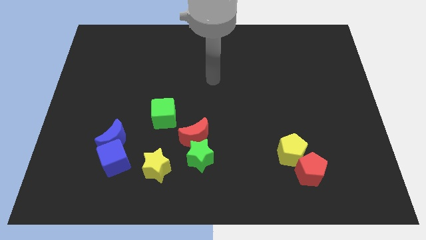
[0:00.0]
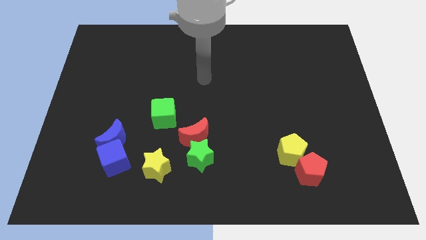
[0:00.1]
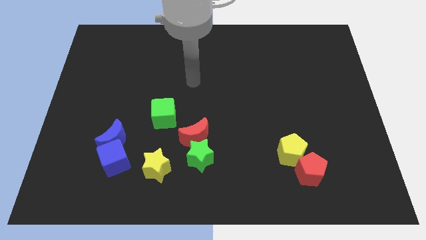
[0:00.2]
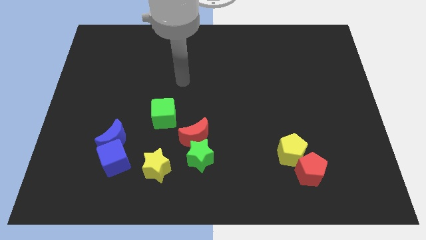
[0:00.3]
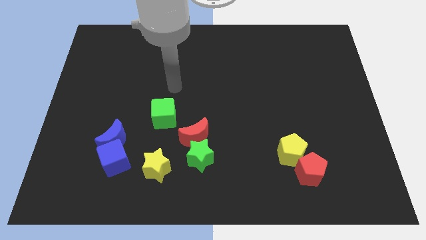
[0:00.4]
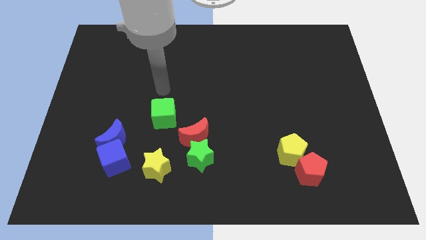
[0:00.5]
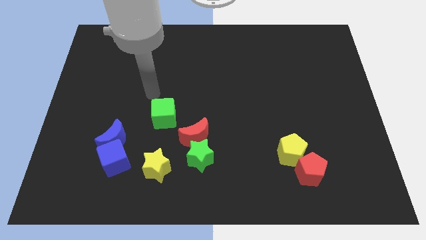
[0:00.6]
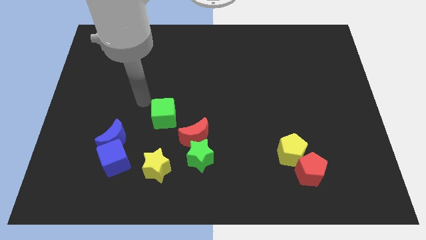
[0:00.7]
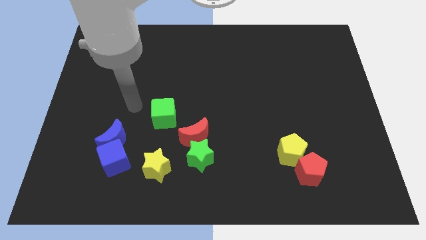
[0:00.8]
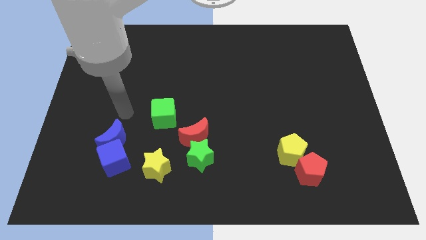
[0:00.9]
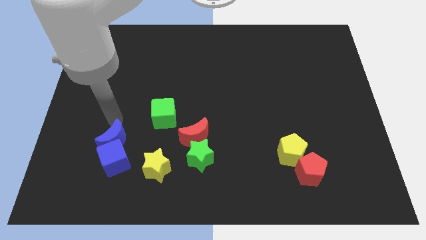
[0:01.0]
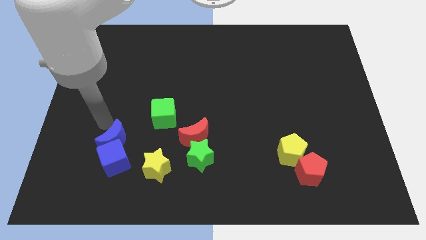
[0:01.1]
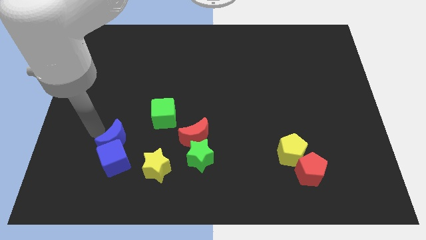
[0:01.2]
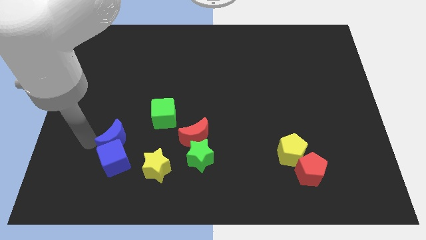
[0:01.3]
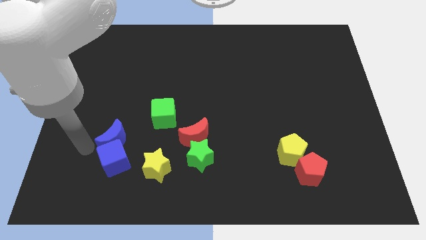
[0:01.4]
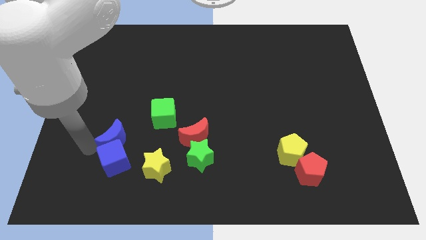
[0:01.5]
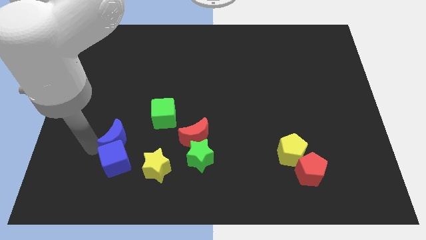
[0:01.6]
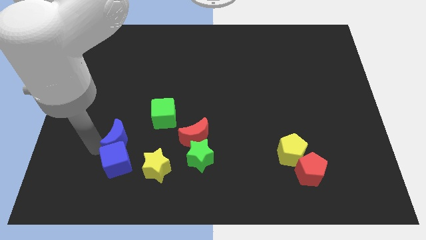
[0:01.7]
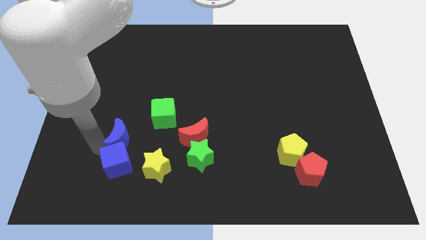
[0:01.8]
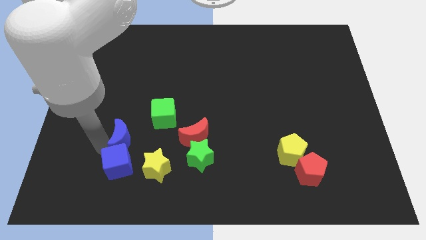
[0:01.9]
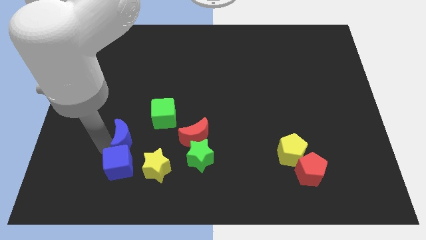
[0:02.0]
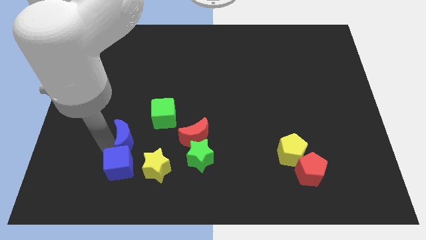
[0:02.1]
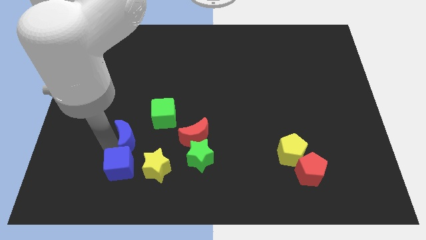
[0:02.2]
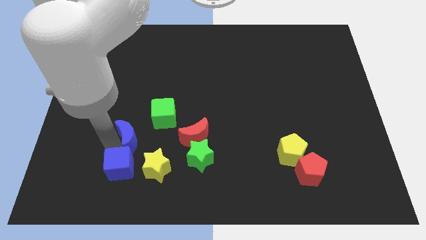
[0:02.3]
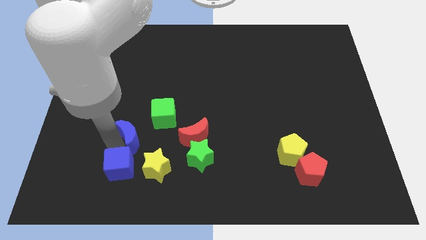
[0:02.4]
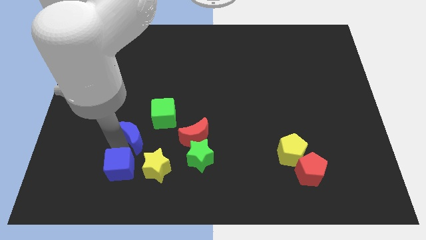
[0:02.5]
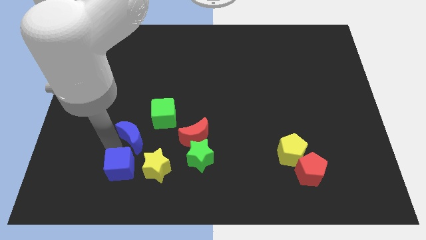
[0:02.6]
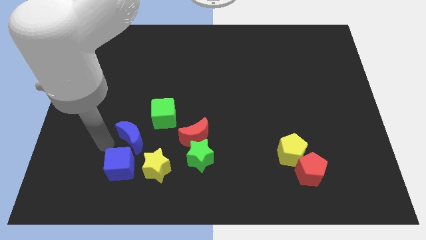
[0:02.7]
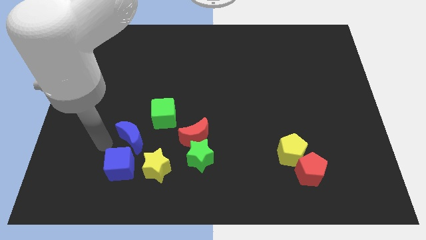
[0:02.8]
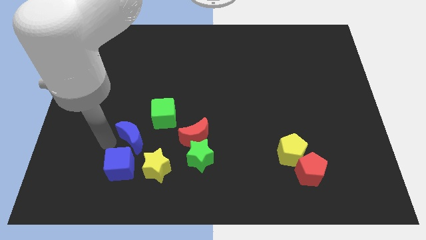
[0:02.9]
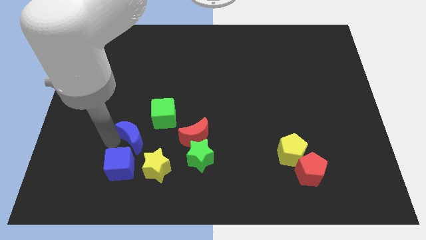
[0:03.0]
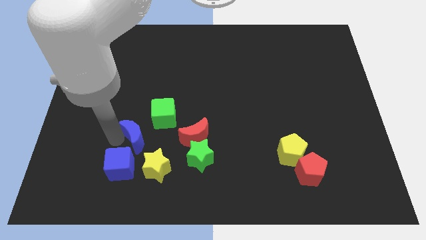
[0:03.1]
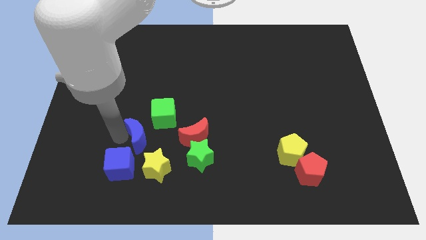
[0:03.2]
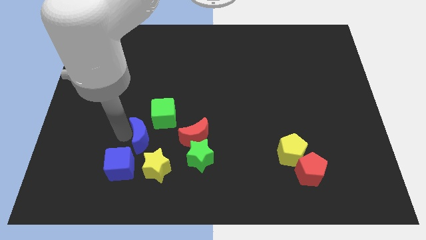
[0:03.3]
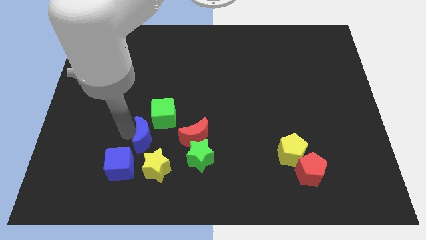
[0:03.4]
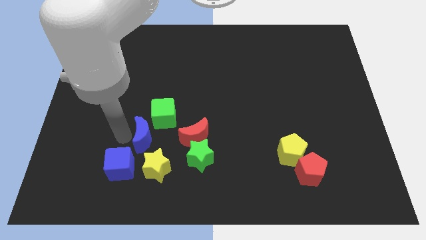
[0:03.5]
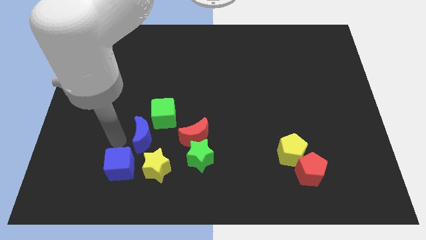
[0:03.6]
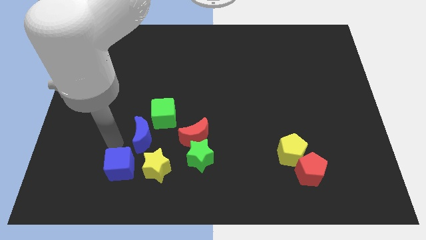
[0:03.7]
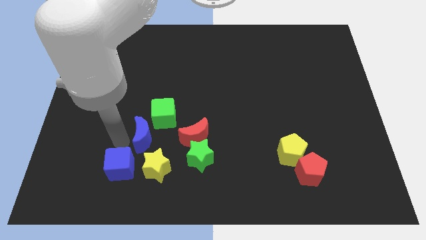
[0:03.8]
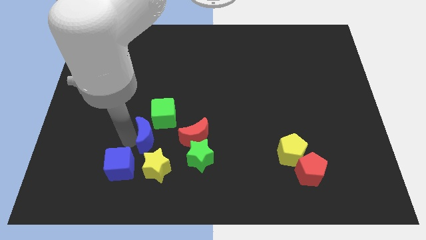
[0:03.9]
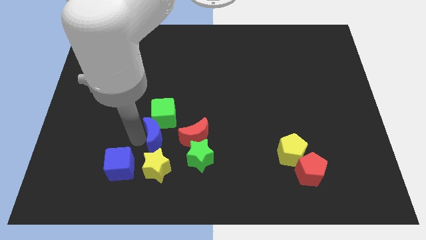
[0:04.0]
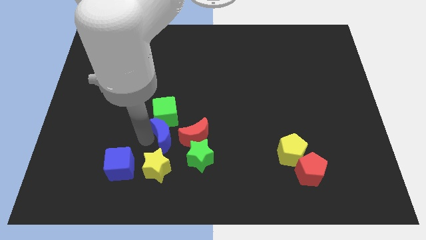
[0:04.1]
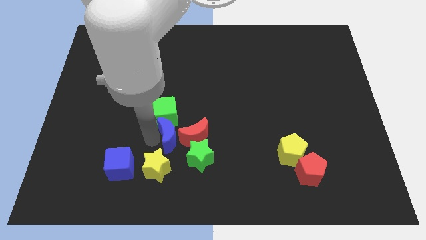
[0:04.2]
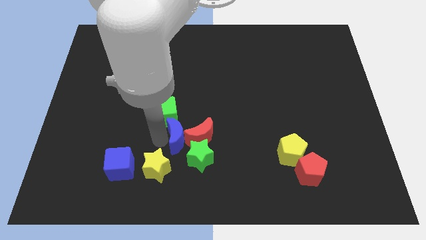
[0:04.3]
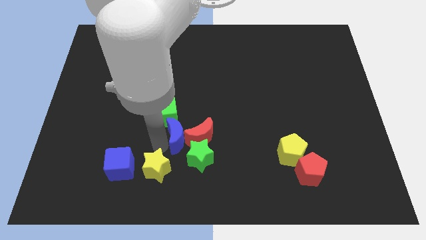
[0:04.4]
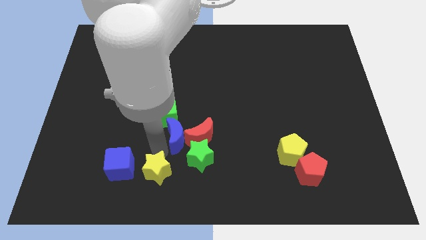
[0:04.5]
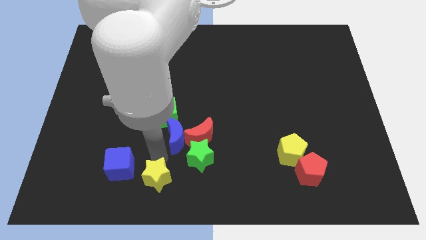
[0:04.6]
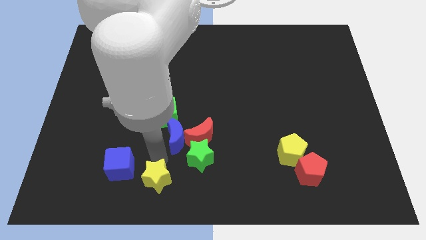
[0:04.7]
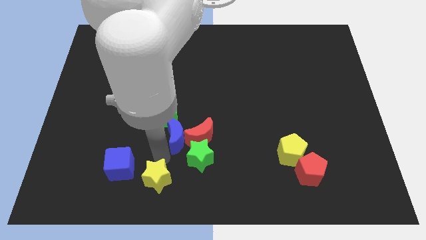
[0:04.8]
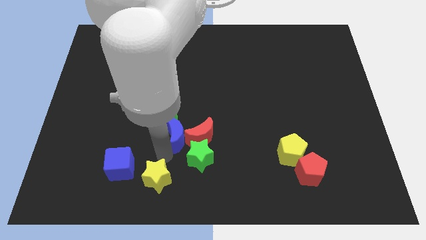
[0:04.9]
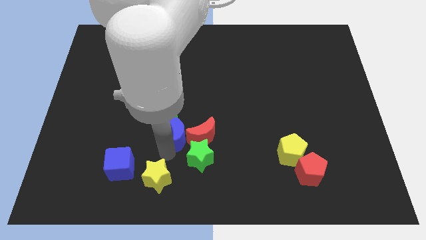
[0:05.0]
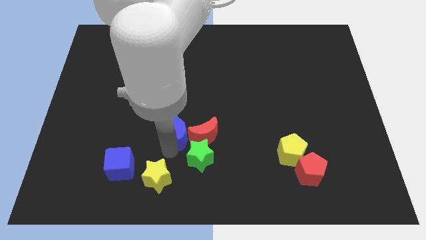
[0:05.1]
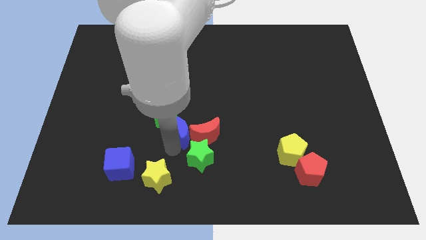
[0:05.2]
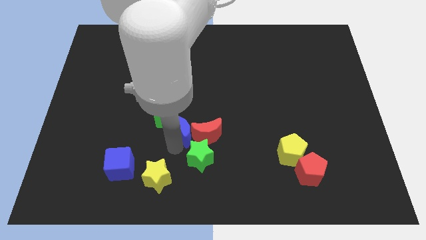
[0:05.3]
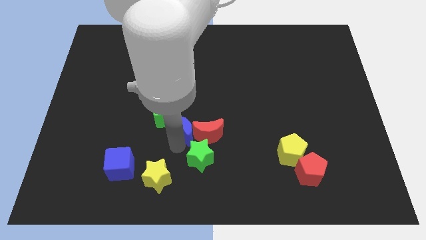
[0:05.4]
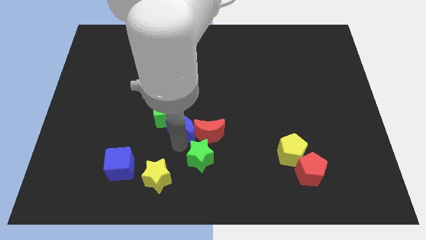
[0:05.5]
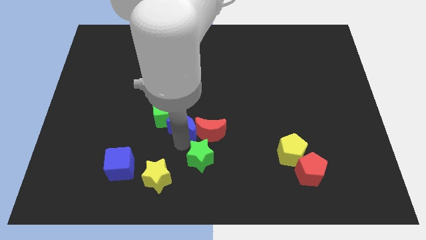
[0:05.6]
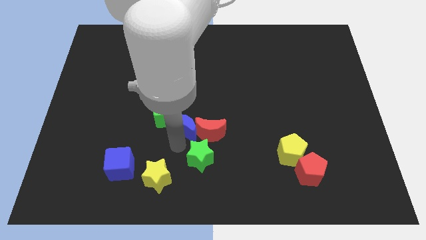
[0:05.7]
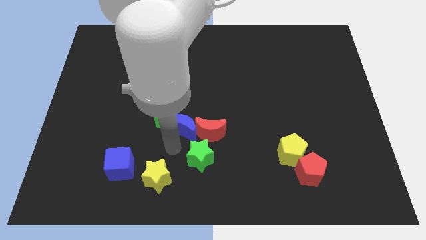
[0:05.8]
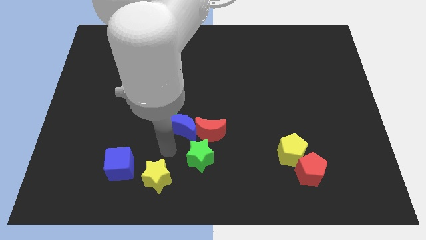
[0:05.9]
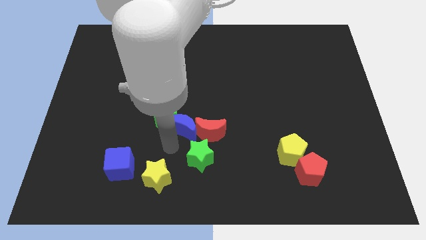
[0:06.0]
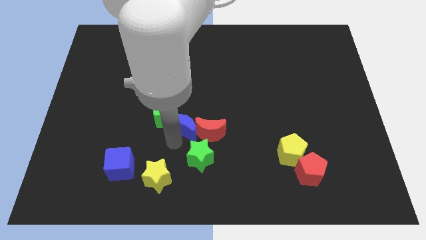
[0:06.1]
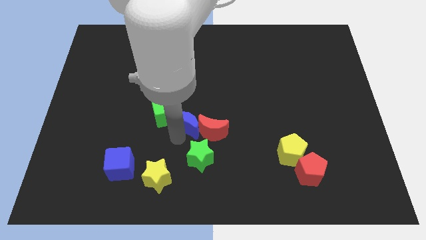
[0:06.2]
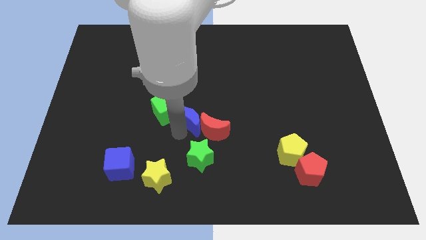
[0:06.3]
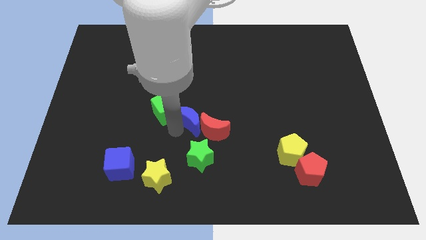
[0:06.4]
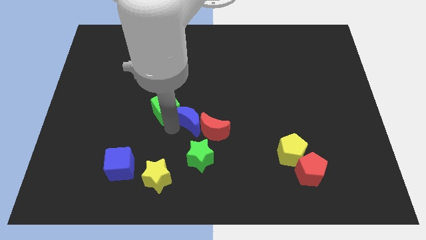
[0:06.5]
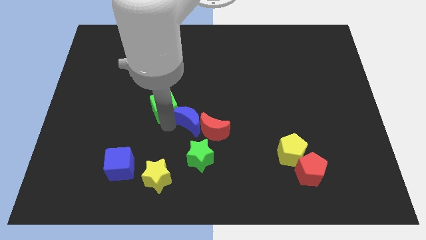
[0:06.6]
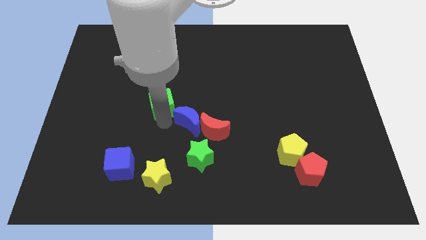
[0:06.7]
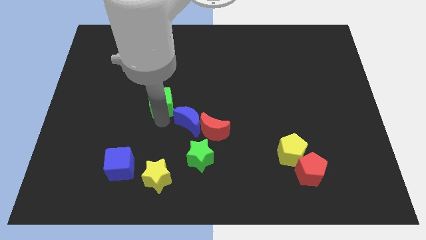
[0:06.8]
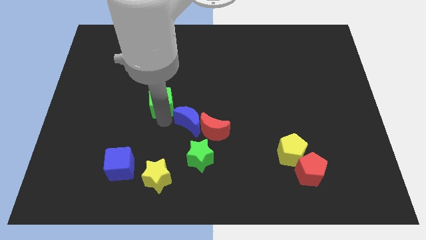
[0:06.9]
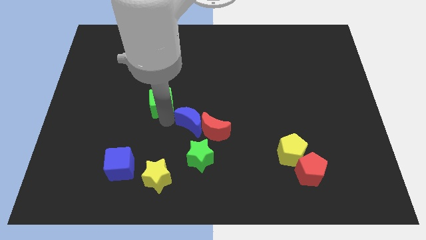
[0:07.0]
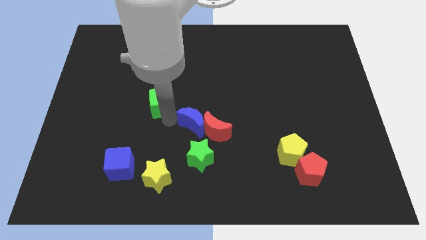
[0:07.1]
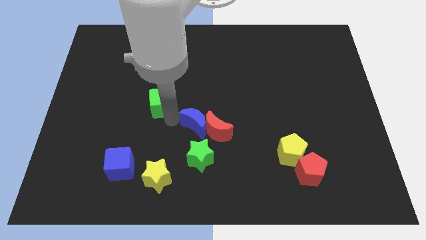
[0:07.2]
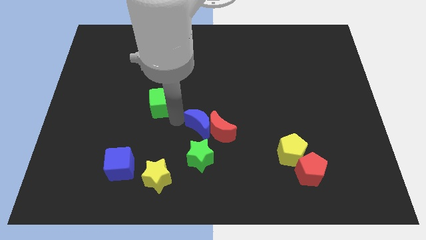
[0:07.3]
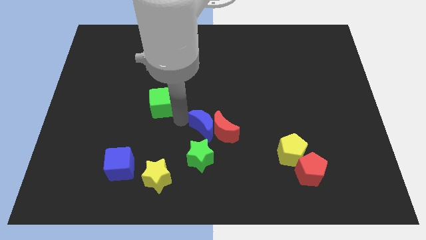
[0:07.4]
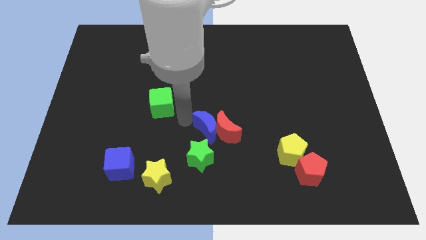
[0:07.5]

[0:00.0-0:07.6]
push the blue moon to the right
